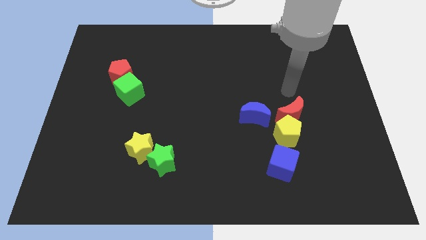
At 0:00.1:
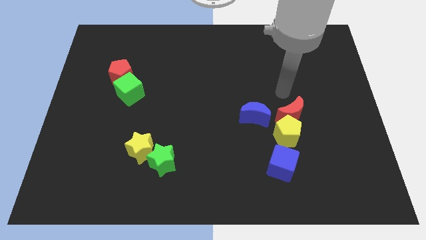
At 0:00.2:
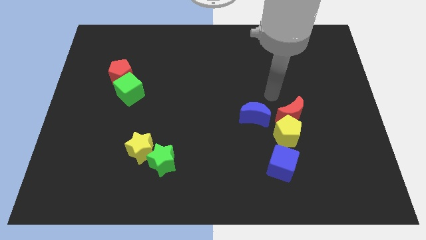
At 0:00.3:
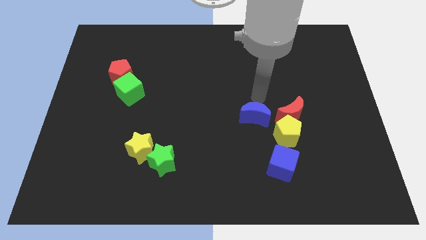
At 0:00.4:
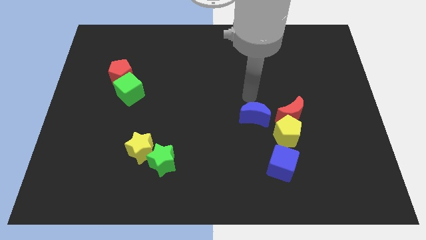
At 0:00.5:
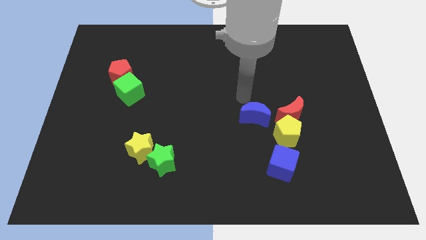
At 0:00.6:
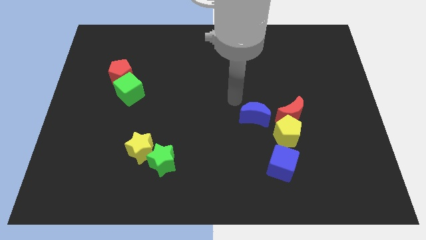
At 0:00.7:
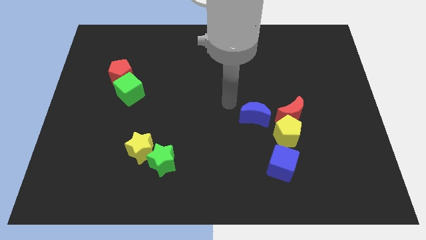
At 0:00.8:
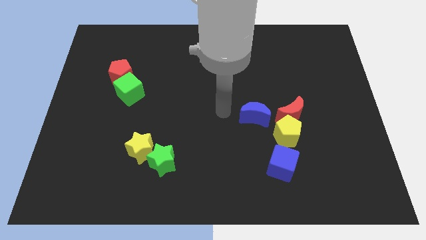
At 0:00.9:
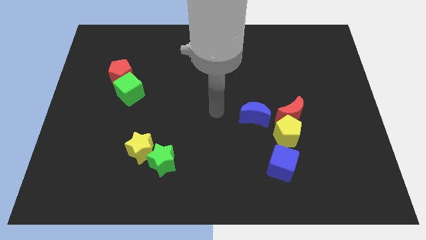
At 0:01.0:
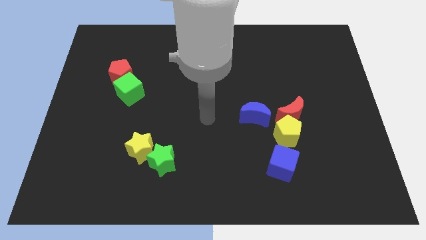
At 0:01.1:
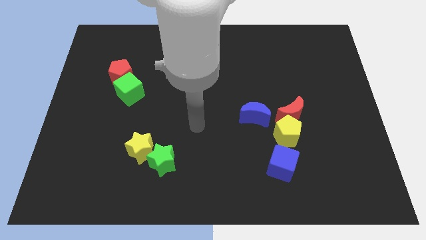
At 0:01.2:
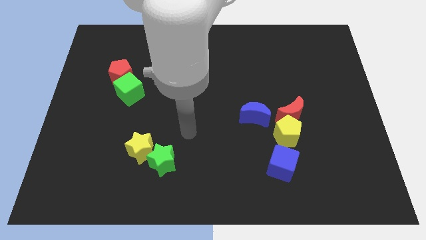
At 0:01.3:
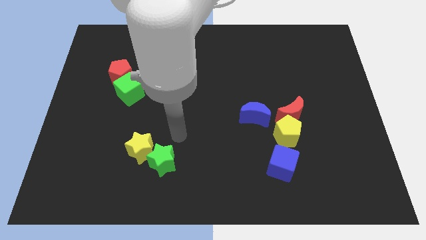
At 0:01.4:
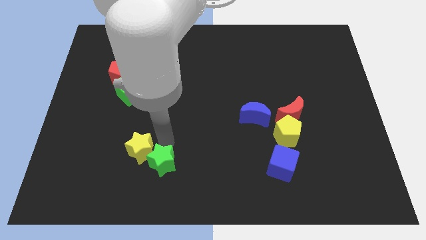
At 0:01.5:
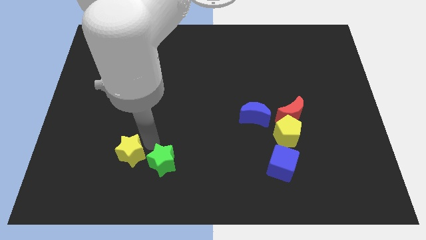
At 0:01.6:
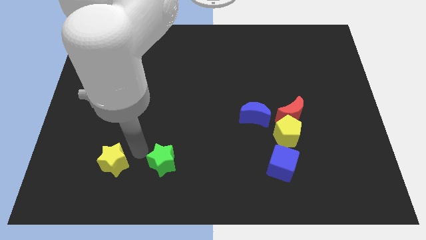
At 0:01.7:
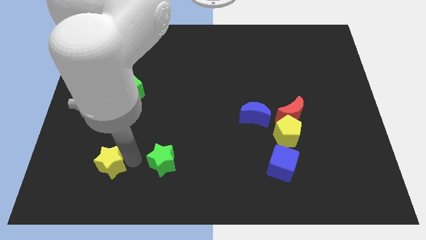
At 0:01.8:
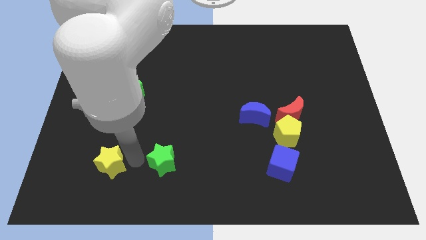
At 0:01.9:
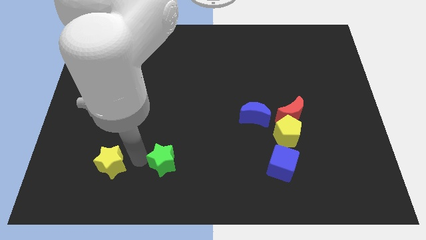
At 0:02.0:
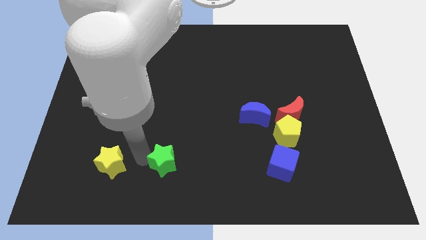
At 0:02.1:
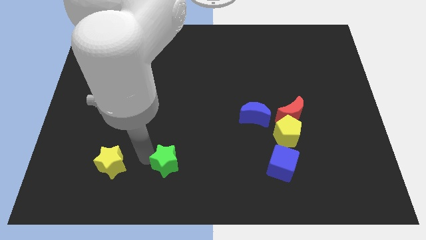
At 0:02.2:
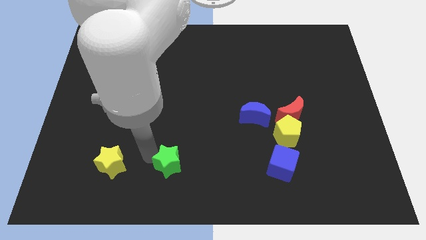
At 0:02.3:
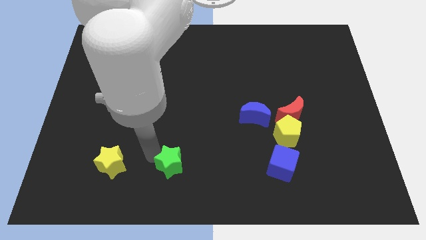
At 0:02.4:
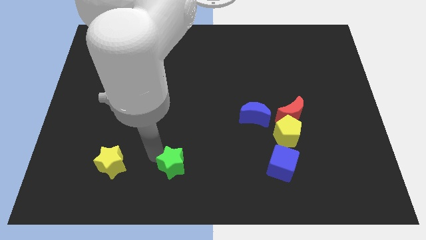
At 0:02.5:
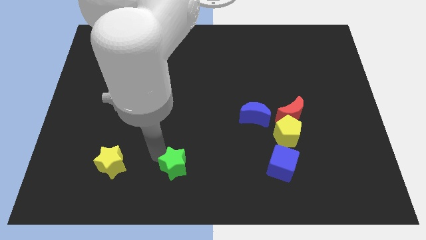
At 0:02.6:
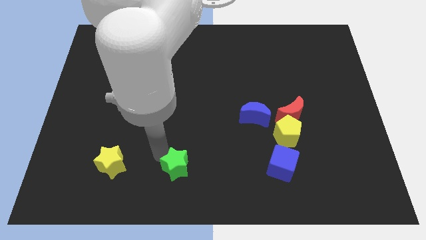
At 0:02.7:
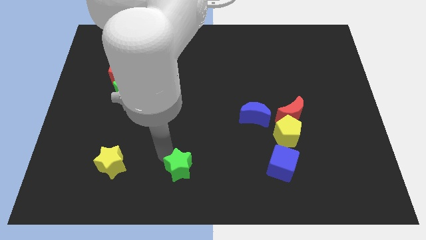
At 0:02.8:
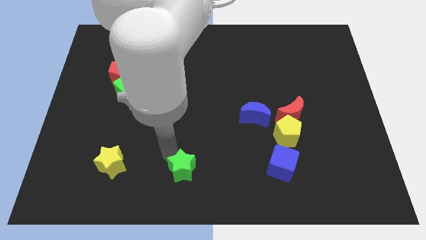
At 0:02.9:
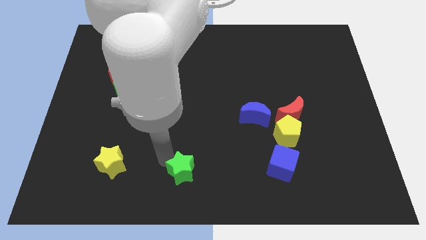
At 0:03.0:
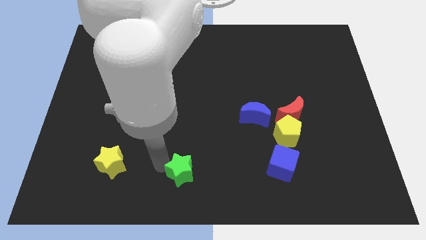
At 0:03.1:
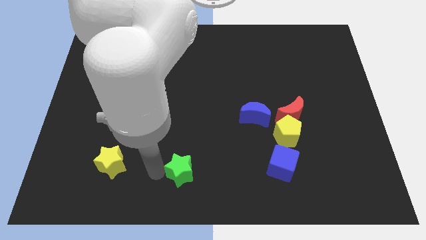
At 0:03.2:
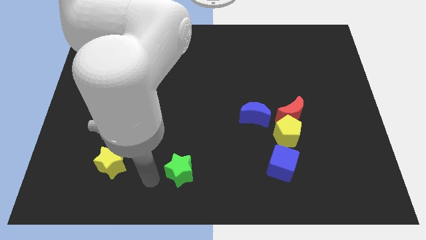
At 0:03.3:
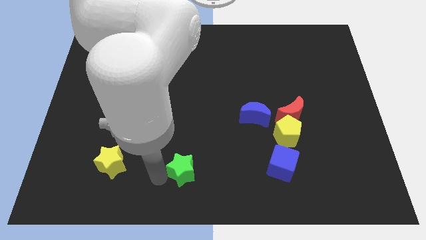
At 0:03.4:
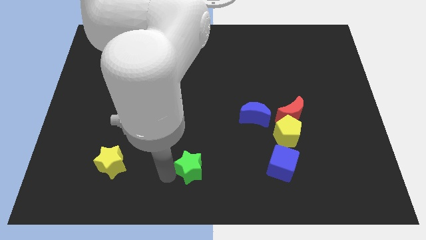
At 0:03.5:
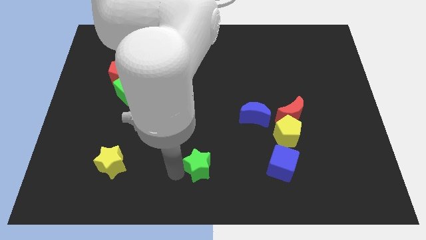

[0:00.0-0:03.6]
move the green star a little bit right

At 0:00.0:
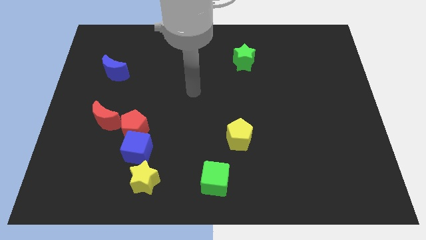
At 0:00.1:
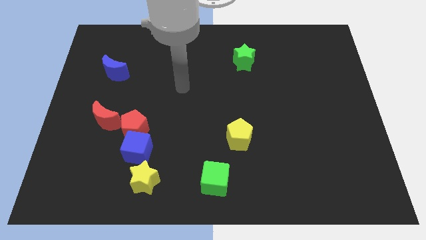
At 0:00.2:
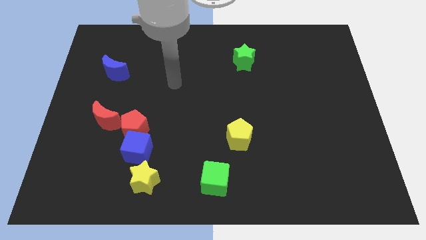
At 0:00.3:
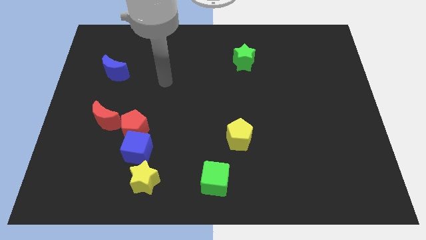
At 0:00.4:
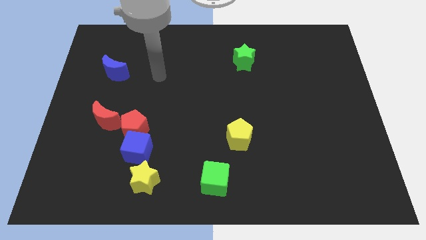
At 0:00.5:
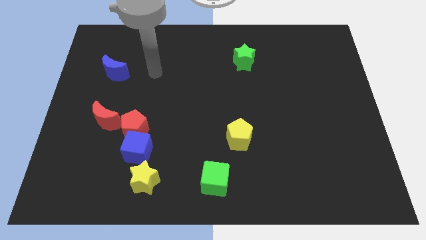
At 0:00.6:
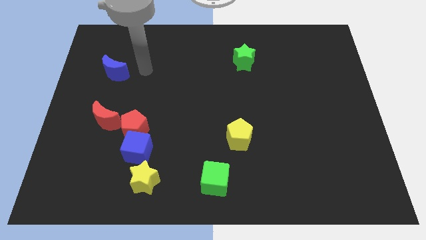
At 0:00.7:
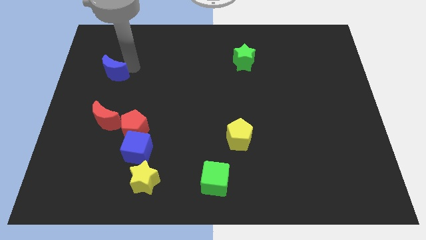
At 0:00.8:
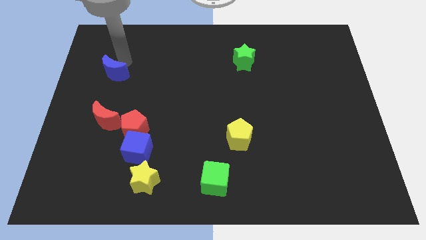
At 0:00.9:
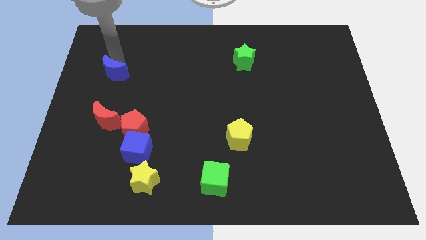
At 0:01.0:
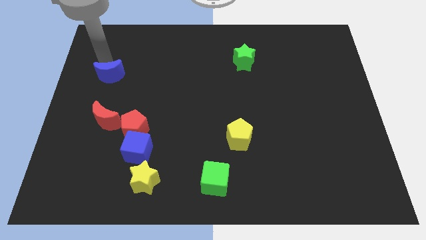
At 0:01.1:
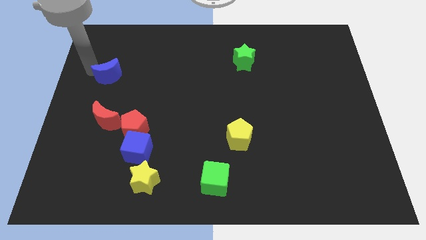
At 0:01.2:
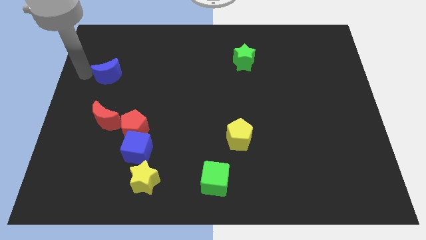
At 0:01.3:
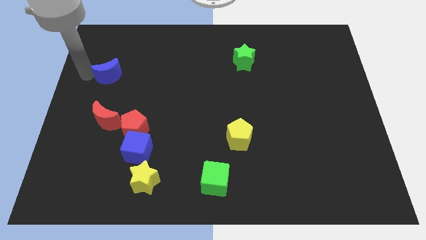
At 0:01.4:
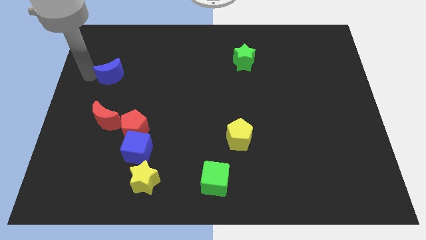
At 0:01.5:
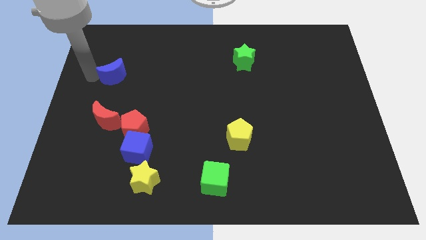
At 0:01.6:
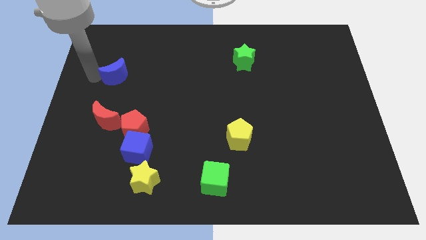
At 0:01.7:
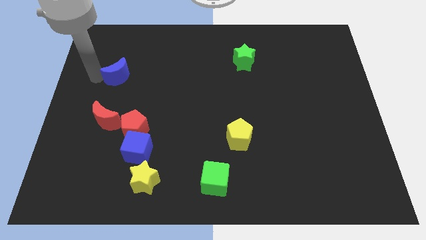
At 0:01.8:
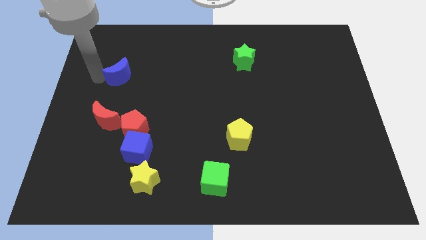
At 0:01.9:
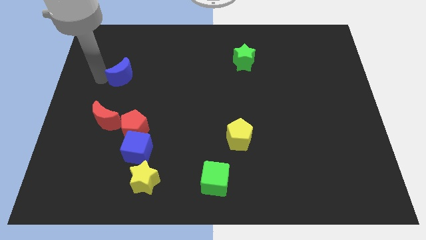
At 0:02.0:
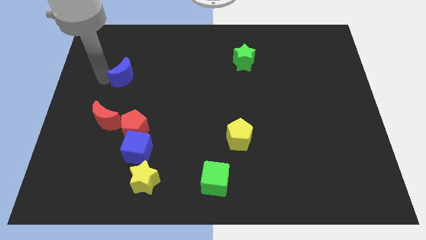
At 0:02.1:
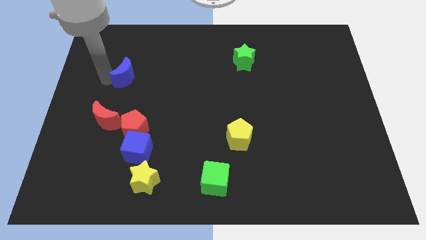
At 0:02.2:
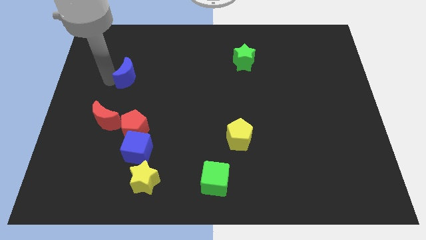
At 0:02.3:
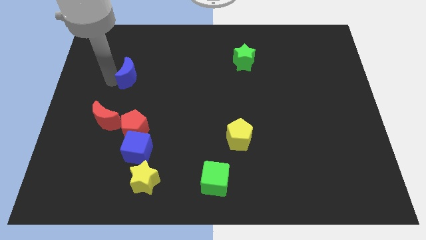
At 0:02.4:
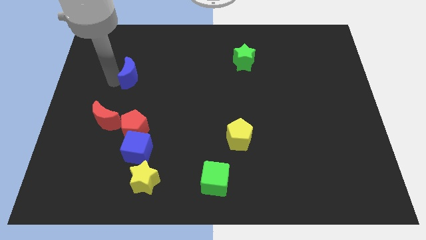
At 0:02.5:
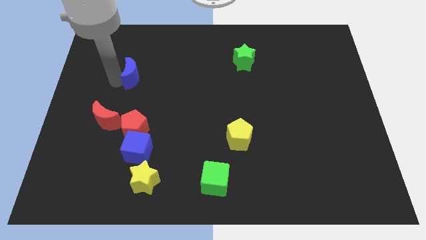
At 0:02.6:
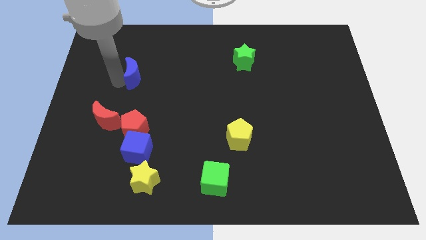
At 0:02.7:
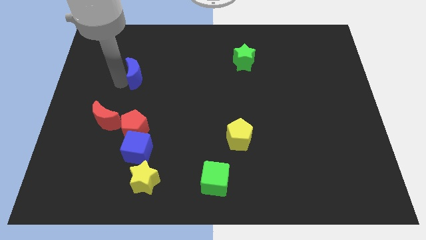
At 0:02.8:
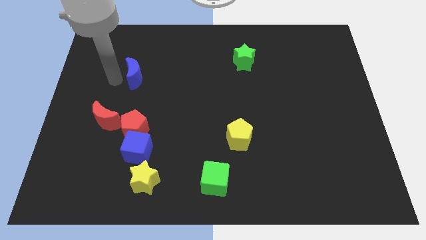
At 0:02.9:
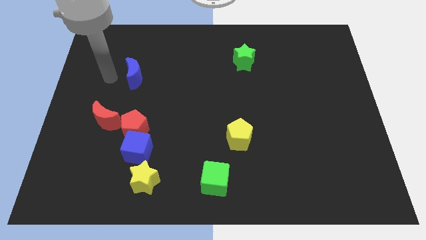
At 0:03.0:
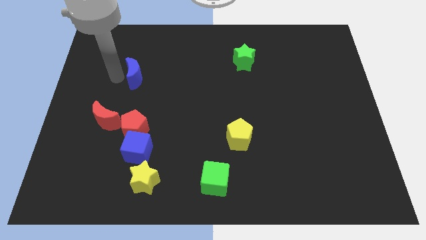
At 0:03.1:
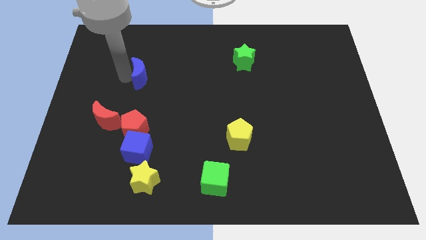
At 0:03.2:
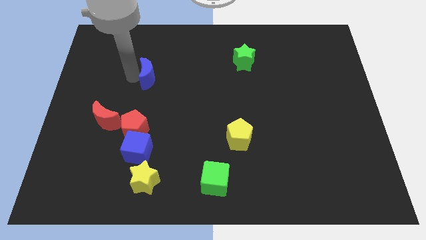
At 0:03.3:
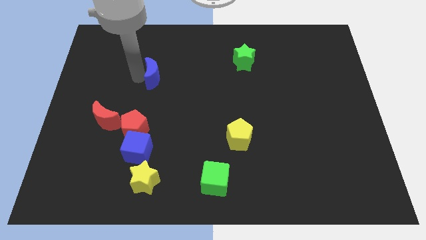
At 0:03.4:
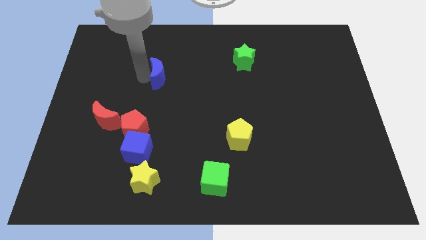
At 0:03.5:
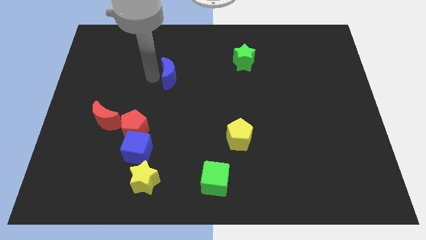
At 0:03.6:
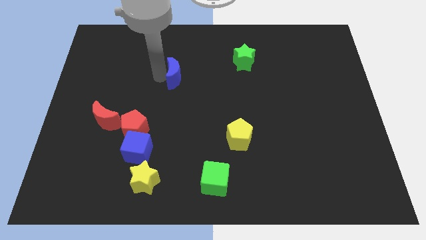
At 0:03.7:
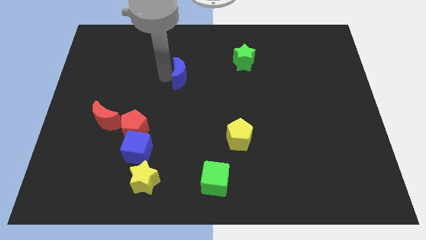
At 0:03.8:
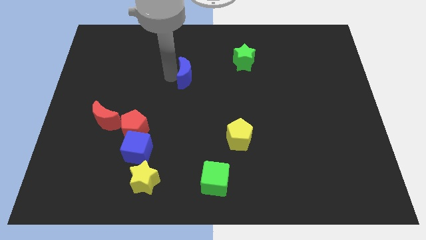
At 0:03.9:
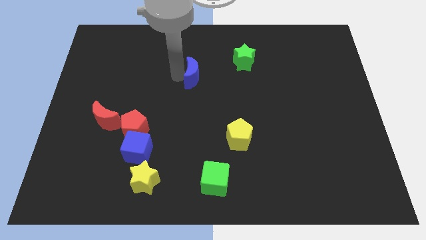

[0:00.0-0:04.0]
move the blue moon right

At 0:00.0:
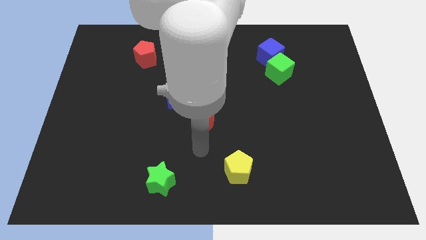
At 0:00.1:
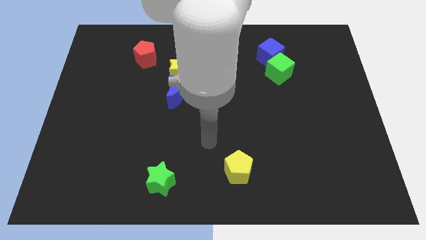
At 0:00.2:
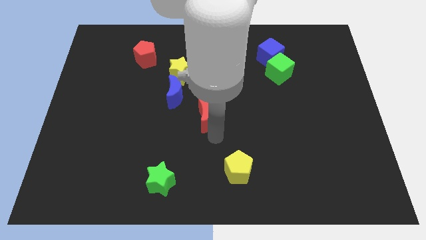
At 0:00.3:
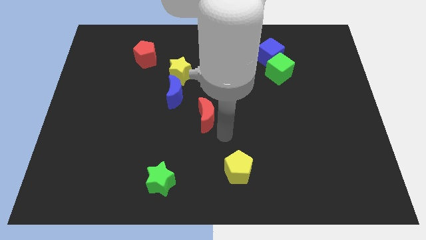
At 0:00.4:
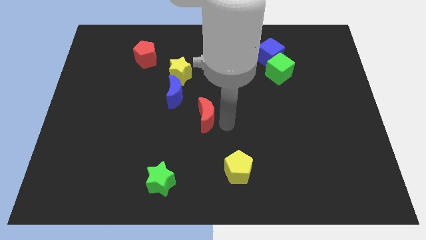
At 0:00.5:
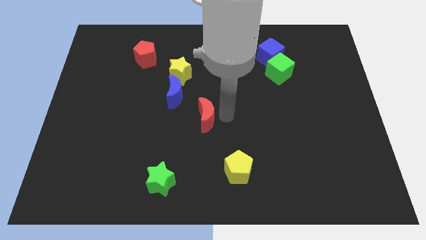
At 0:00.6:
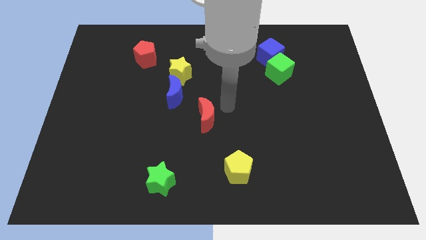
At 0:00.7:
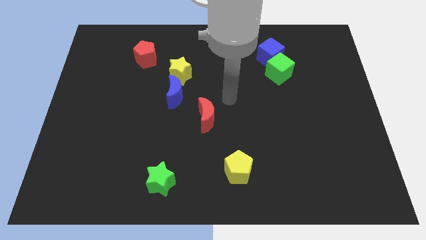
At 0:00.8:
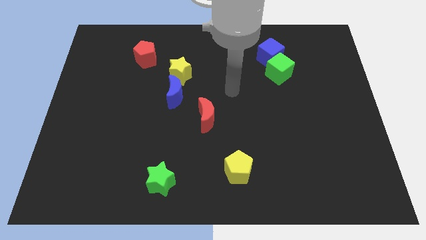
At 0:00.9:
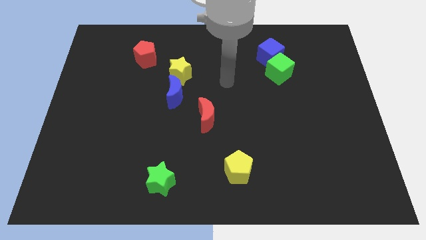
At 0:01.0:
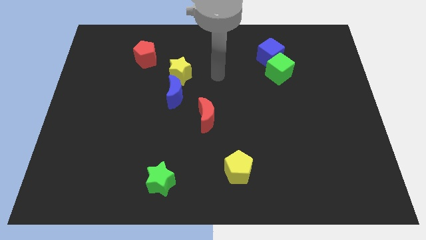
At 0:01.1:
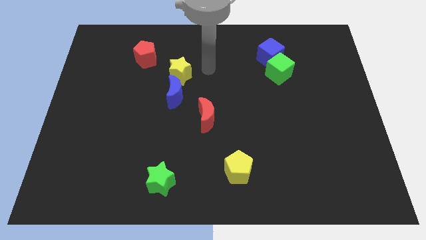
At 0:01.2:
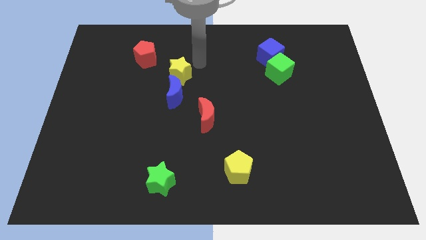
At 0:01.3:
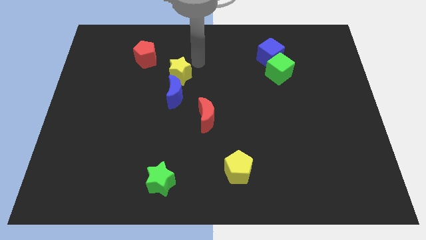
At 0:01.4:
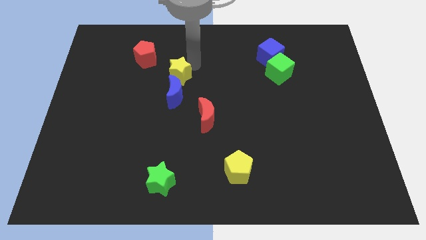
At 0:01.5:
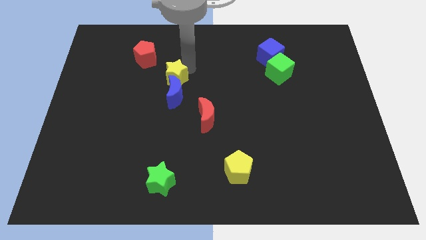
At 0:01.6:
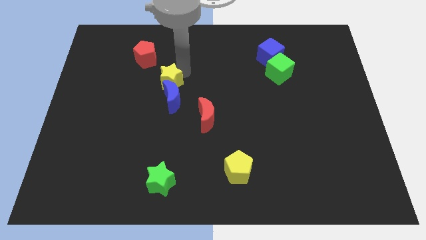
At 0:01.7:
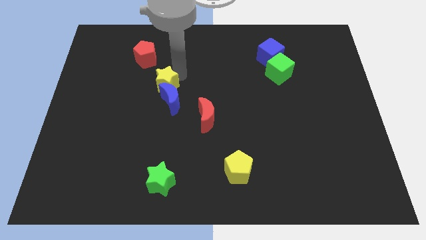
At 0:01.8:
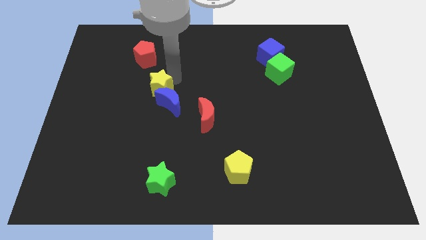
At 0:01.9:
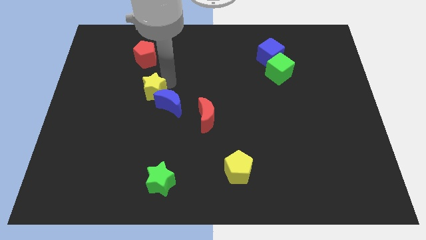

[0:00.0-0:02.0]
slightly move the yellow star diagonally down and to the left
